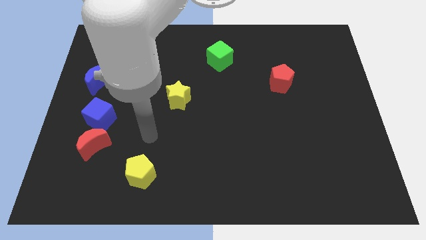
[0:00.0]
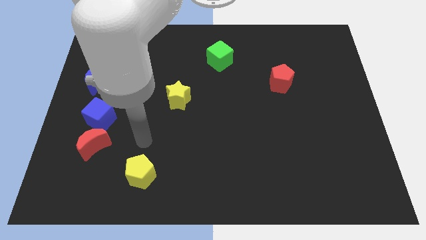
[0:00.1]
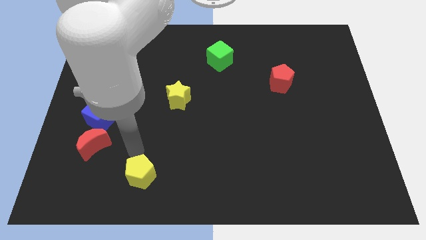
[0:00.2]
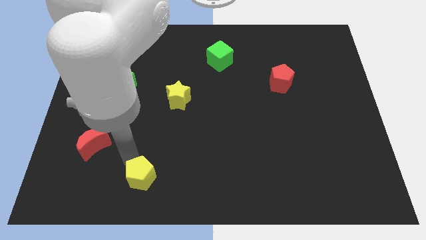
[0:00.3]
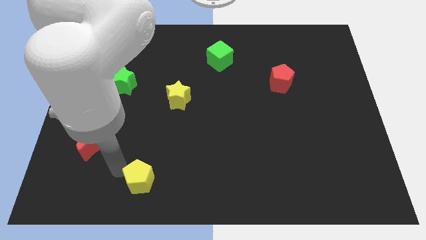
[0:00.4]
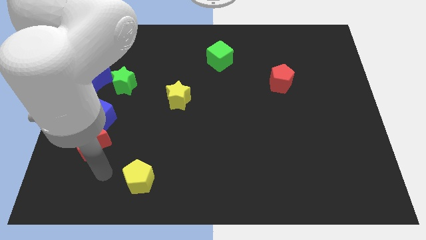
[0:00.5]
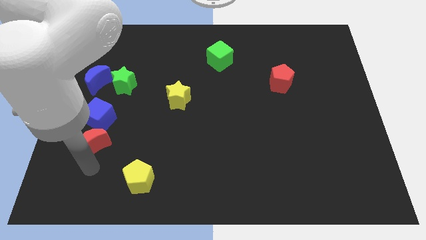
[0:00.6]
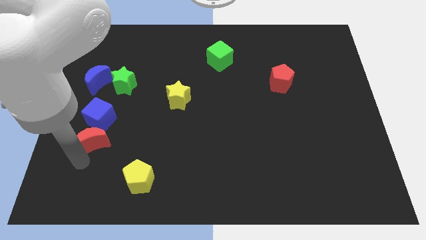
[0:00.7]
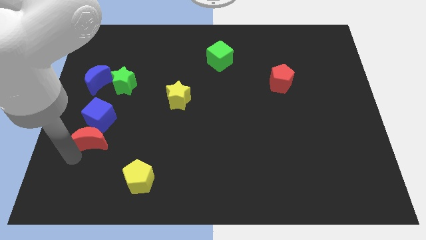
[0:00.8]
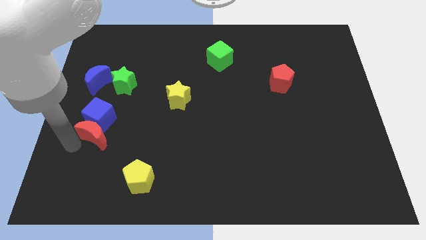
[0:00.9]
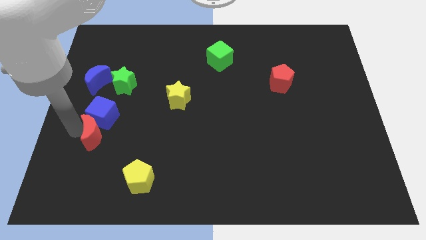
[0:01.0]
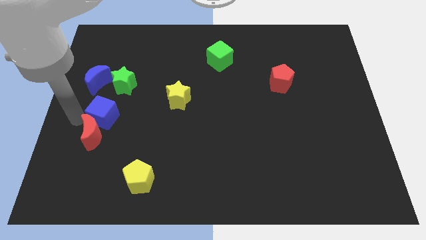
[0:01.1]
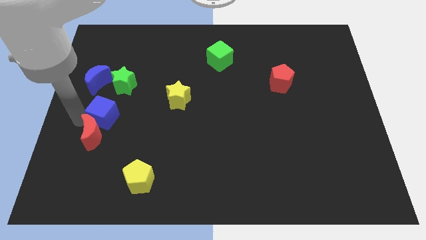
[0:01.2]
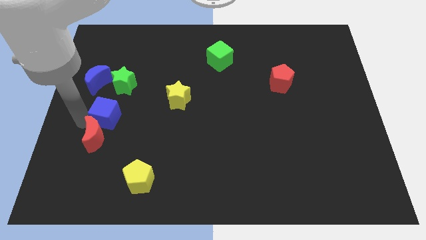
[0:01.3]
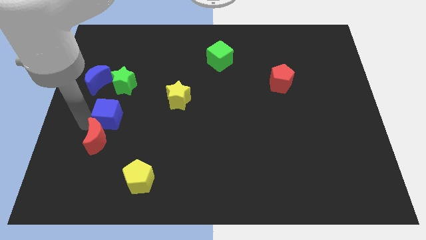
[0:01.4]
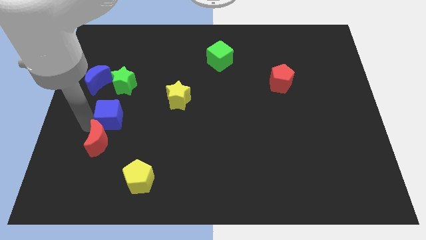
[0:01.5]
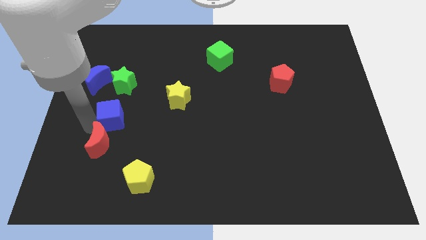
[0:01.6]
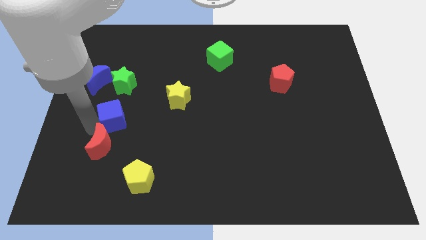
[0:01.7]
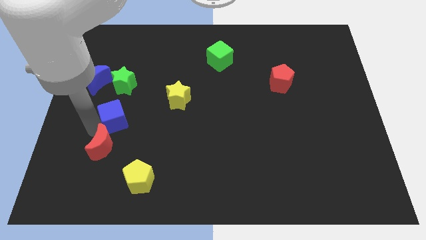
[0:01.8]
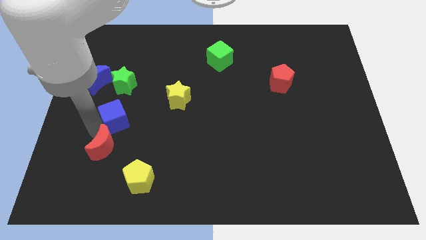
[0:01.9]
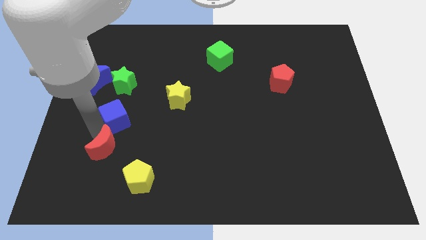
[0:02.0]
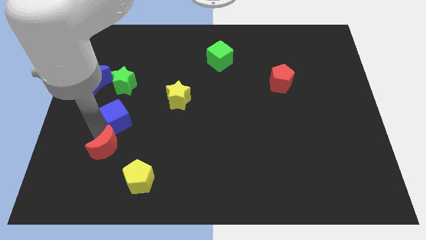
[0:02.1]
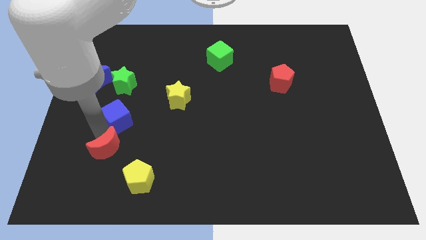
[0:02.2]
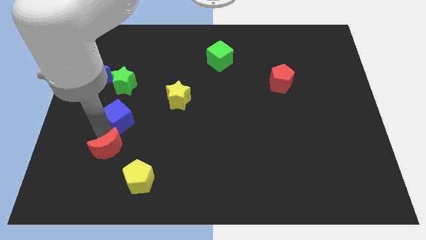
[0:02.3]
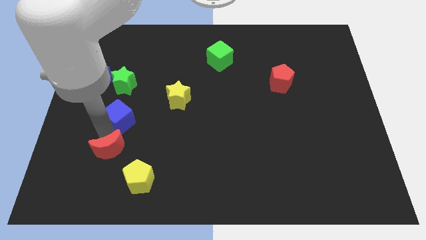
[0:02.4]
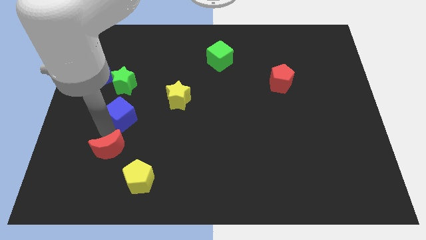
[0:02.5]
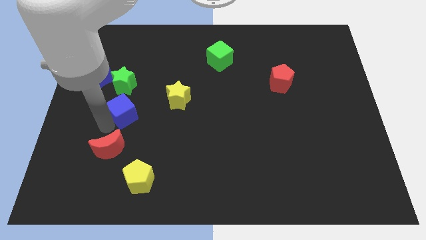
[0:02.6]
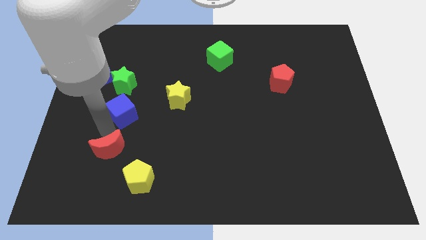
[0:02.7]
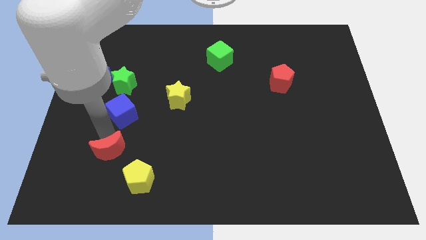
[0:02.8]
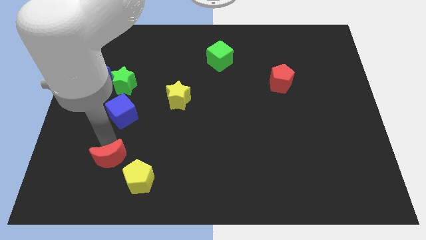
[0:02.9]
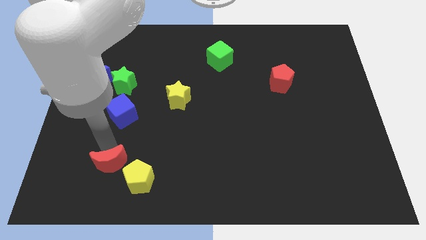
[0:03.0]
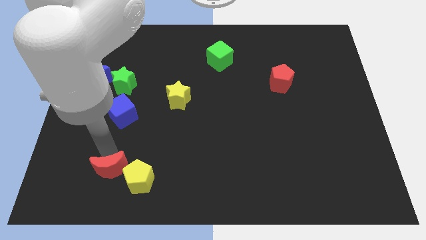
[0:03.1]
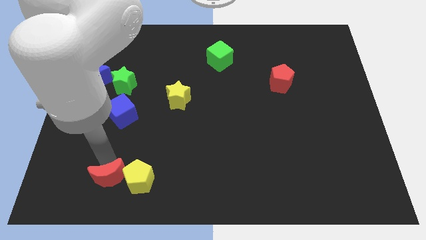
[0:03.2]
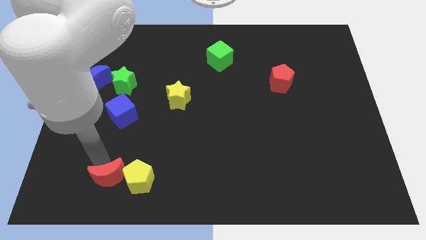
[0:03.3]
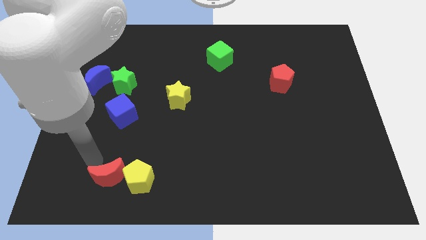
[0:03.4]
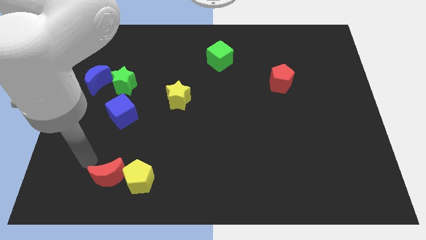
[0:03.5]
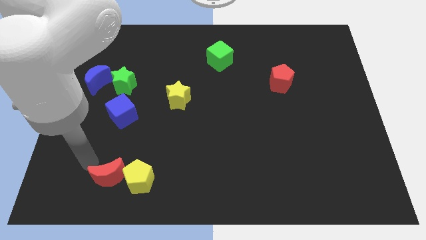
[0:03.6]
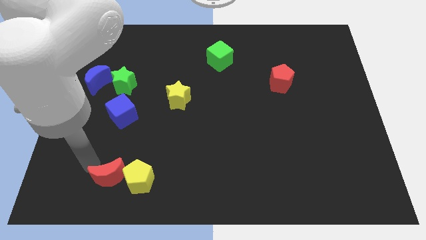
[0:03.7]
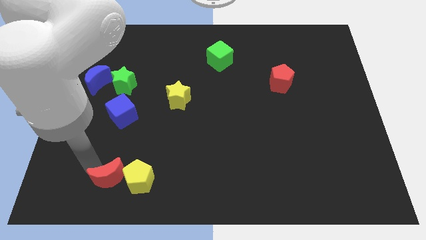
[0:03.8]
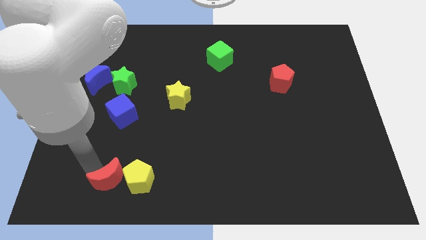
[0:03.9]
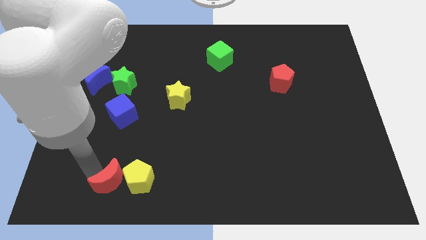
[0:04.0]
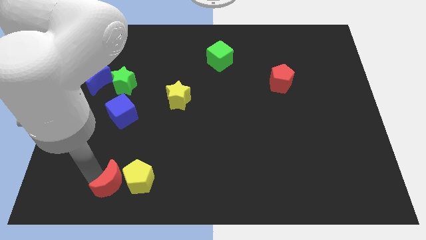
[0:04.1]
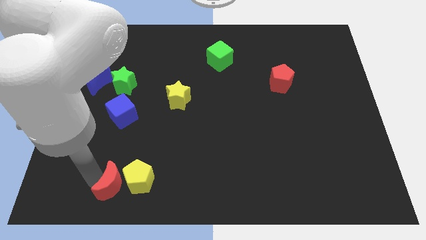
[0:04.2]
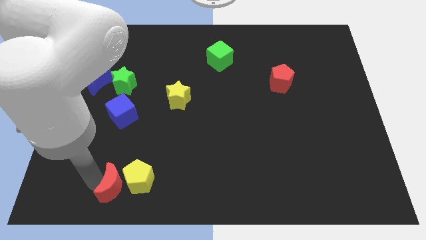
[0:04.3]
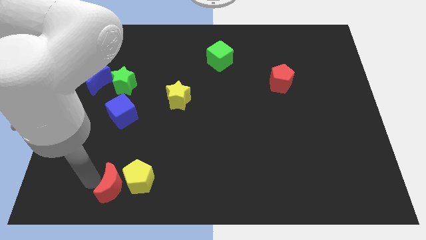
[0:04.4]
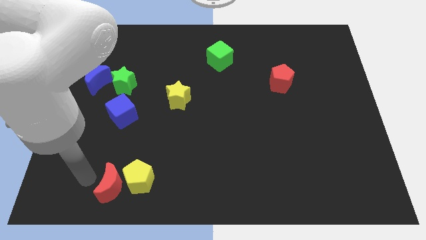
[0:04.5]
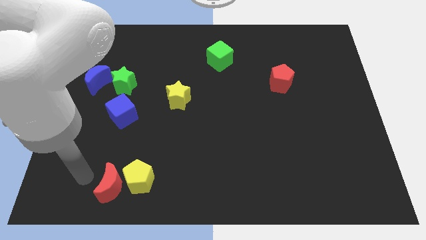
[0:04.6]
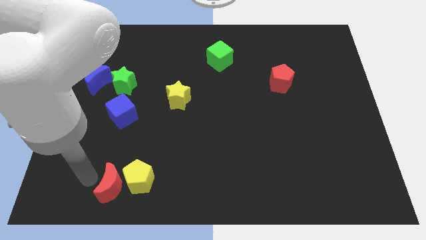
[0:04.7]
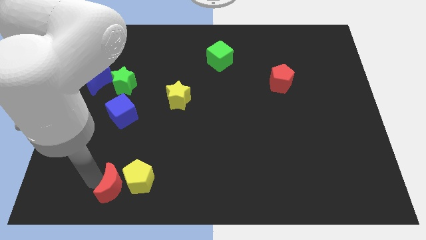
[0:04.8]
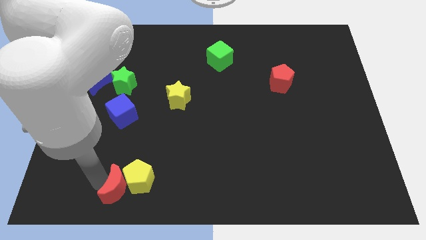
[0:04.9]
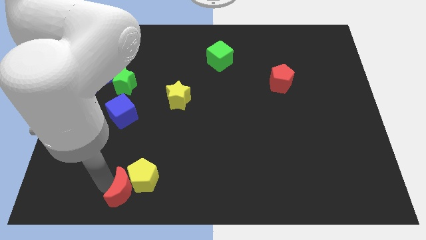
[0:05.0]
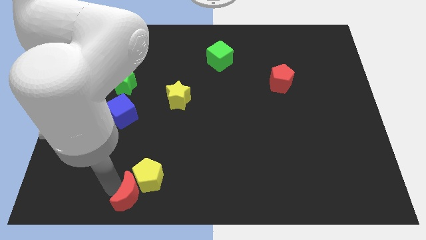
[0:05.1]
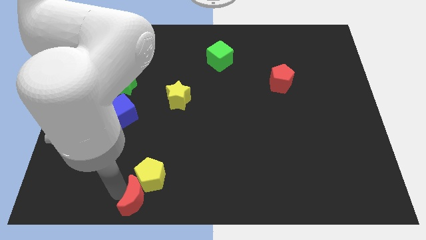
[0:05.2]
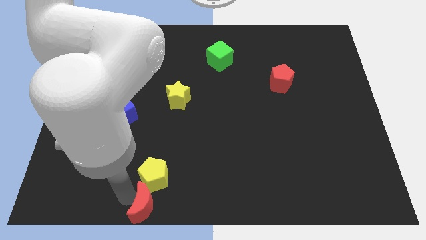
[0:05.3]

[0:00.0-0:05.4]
put the red moon to the bottom

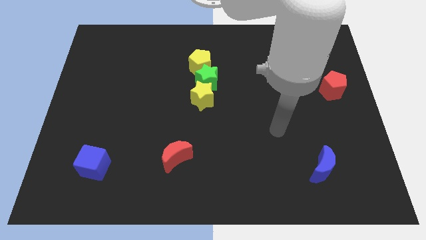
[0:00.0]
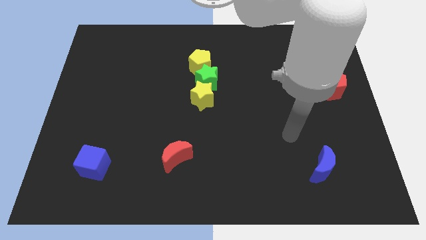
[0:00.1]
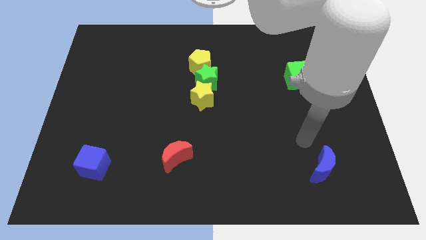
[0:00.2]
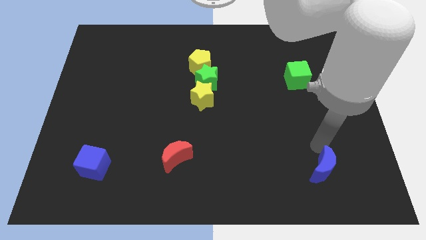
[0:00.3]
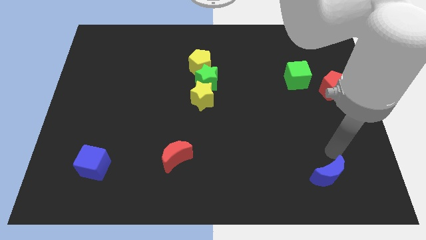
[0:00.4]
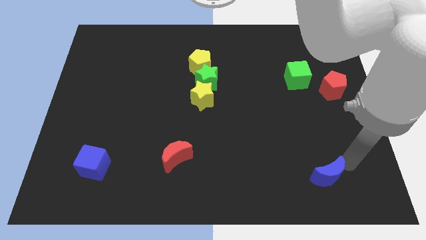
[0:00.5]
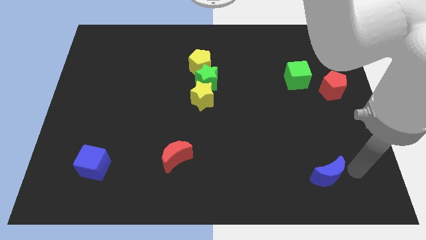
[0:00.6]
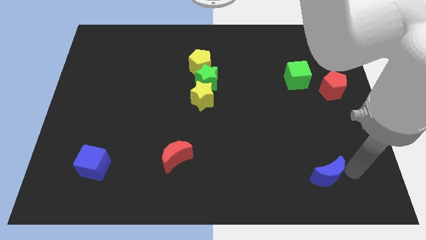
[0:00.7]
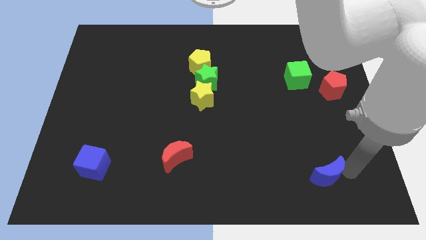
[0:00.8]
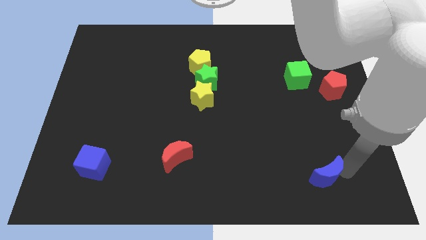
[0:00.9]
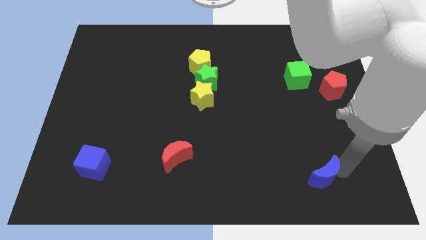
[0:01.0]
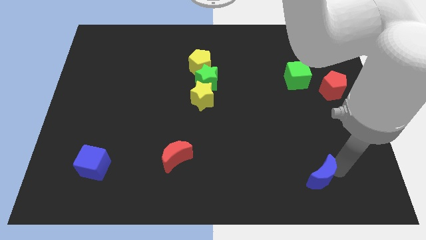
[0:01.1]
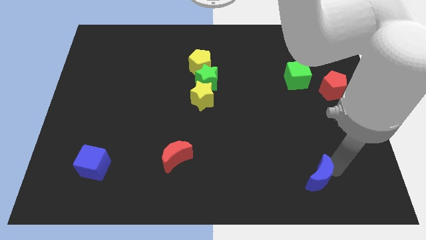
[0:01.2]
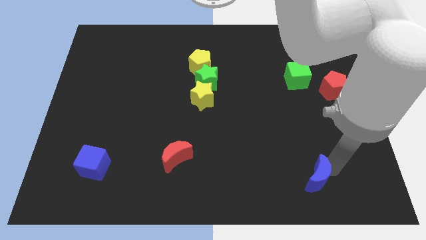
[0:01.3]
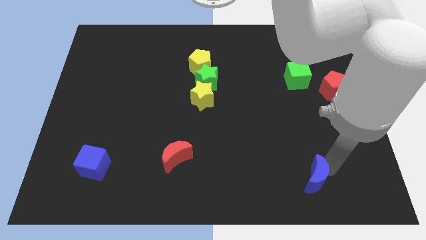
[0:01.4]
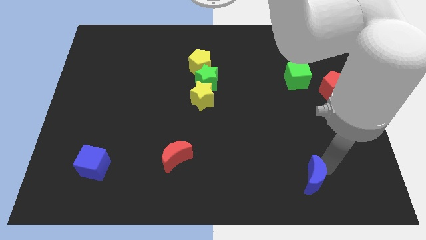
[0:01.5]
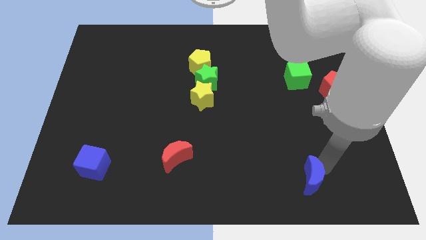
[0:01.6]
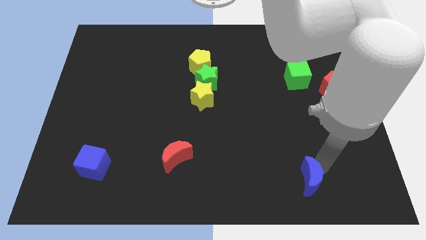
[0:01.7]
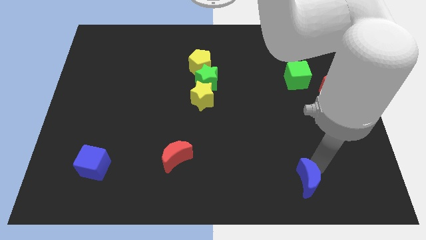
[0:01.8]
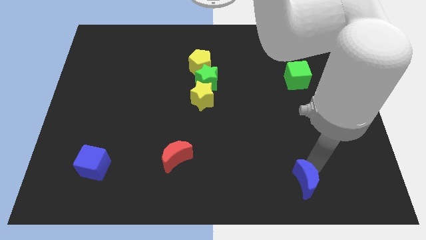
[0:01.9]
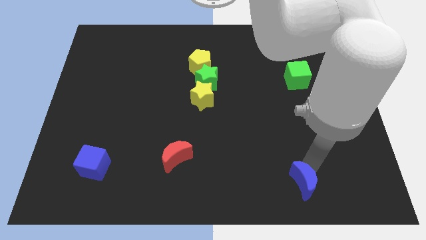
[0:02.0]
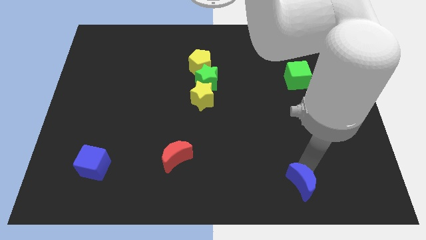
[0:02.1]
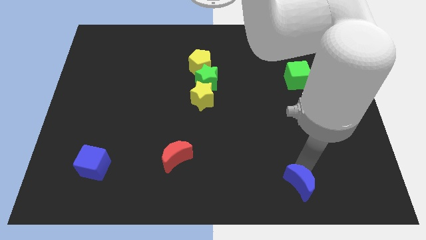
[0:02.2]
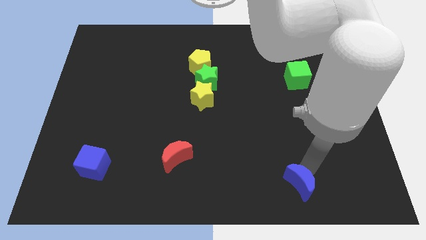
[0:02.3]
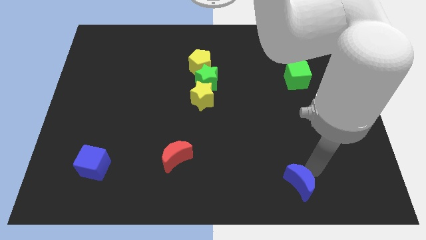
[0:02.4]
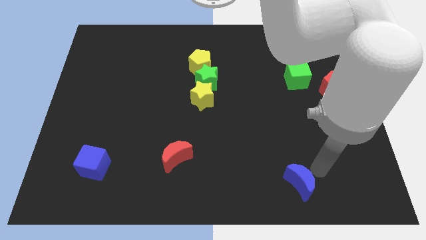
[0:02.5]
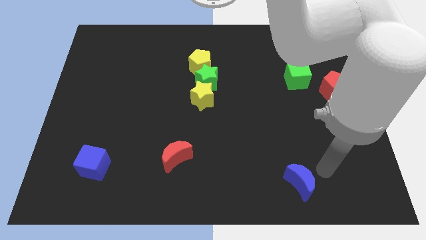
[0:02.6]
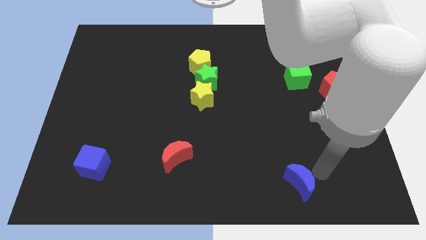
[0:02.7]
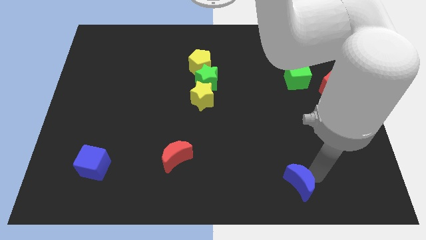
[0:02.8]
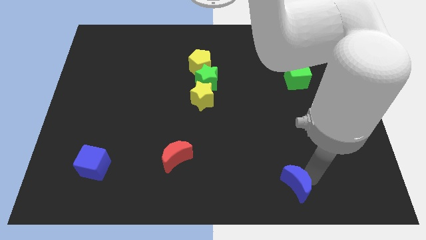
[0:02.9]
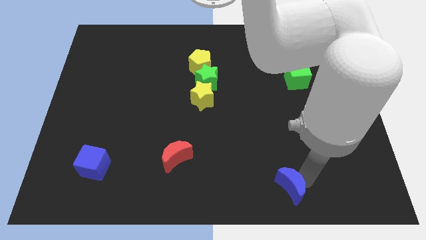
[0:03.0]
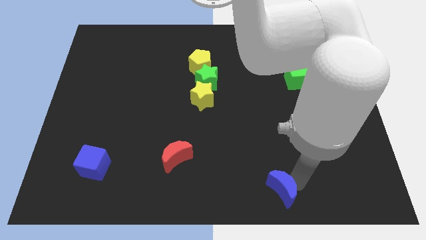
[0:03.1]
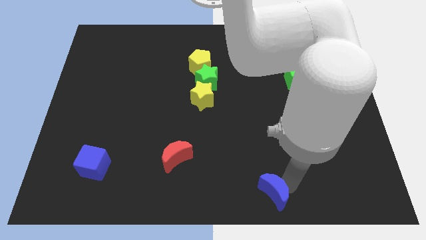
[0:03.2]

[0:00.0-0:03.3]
put the blue moon to the bottom
